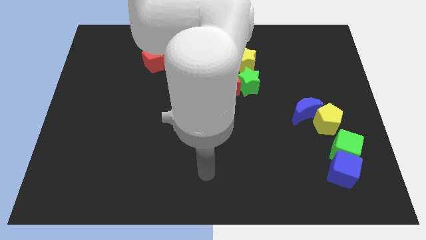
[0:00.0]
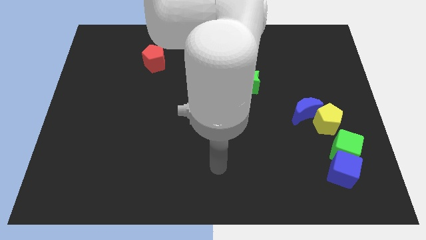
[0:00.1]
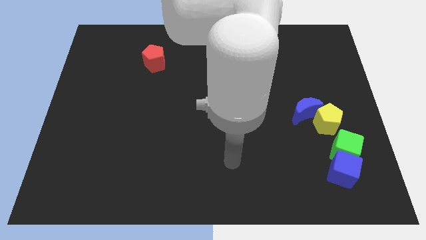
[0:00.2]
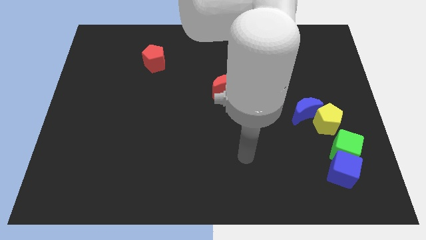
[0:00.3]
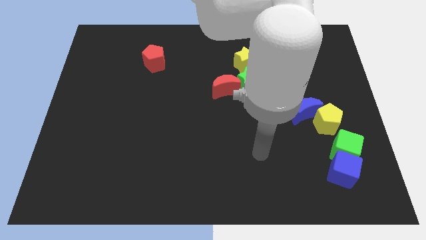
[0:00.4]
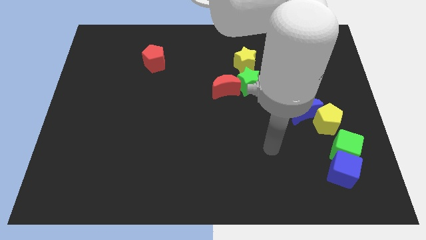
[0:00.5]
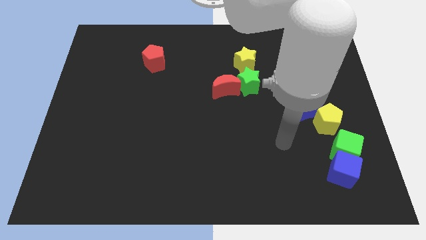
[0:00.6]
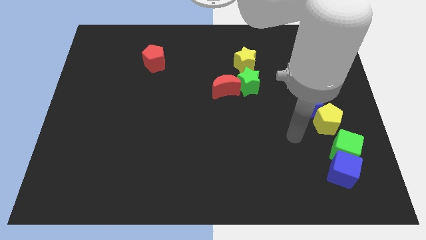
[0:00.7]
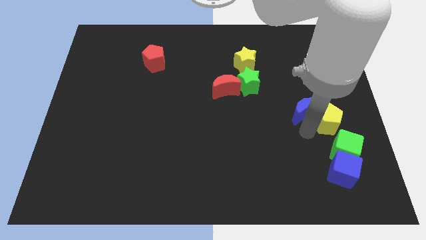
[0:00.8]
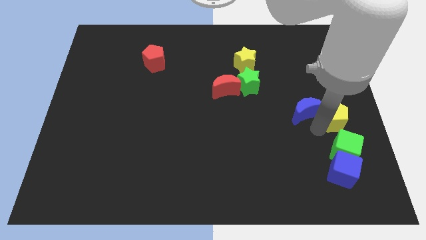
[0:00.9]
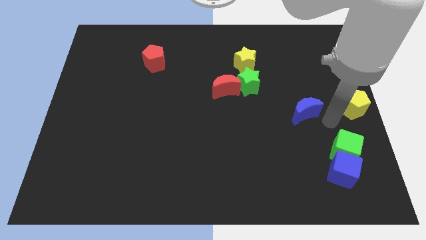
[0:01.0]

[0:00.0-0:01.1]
move the blue moon away from the yellow pentagon

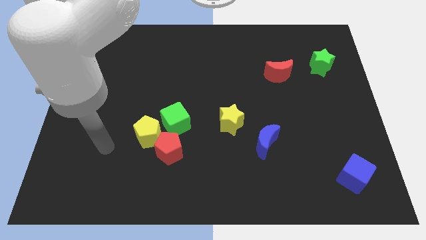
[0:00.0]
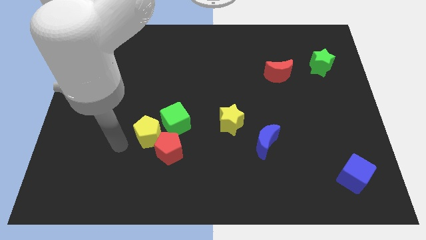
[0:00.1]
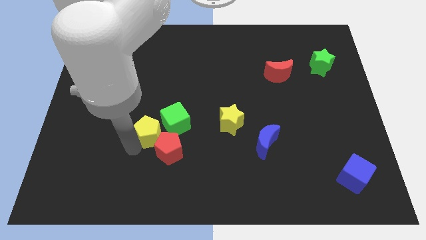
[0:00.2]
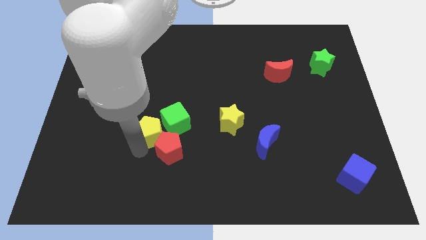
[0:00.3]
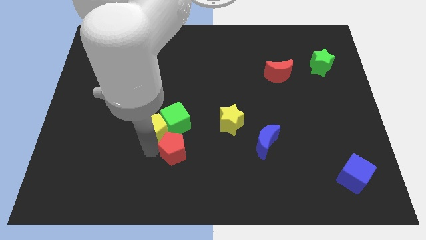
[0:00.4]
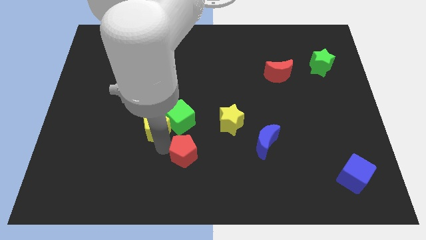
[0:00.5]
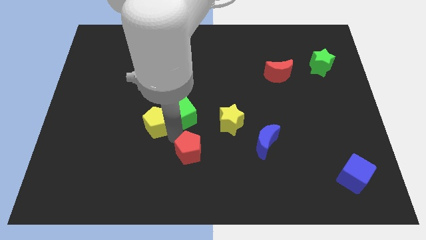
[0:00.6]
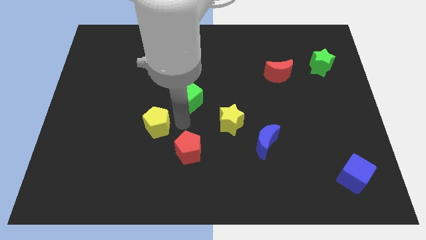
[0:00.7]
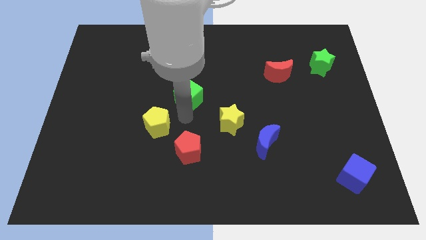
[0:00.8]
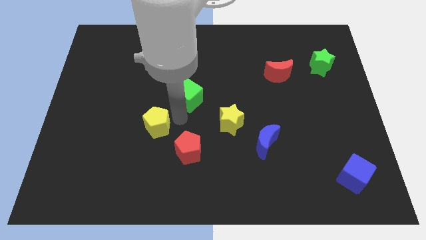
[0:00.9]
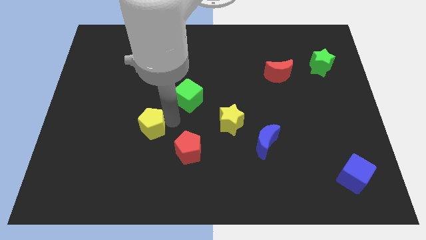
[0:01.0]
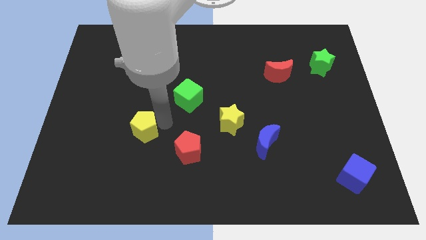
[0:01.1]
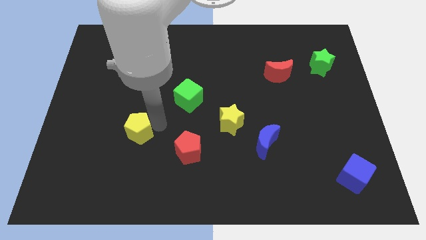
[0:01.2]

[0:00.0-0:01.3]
separate the yellow pentagon from the red pentagon and green cube

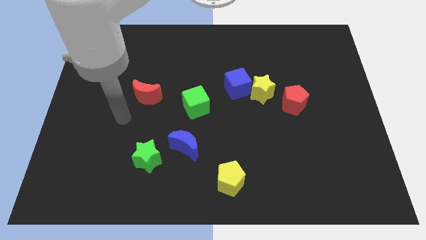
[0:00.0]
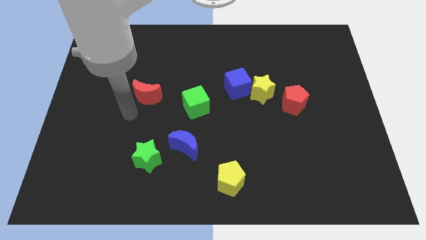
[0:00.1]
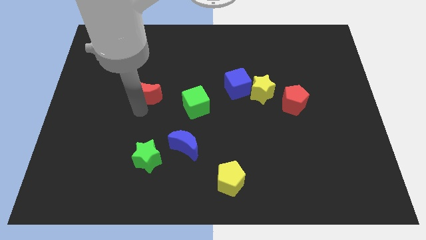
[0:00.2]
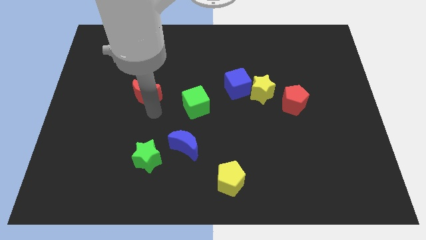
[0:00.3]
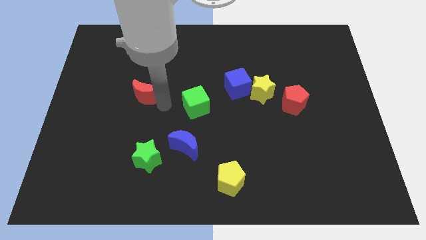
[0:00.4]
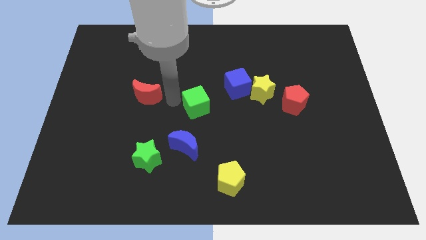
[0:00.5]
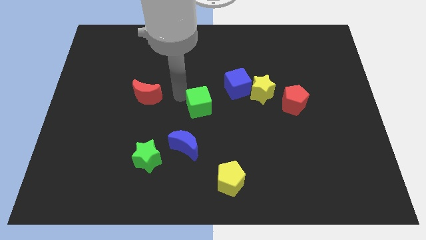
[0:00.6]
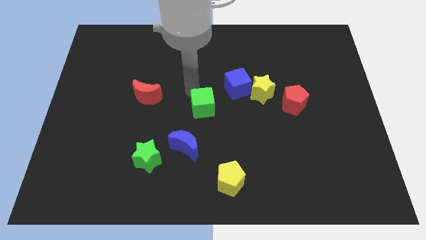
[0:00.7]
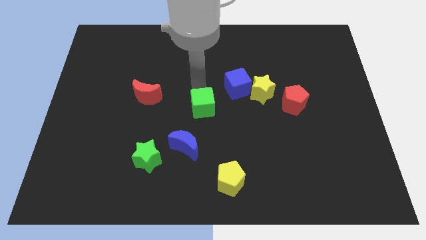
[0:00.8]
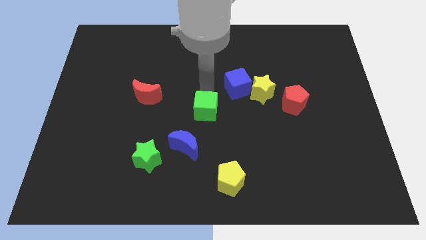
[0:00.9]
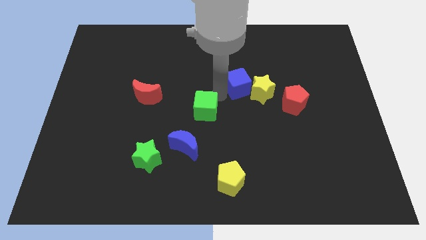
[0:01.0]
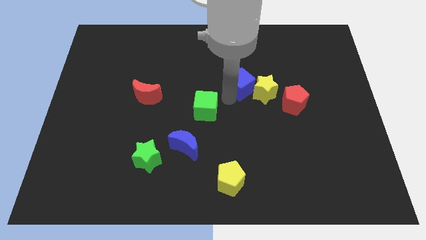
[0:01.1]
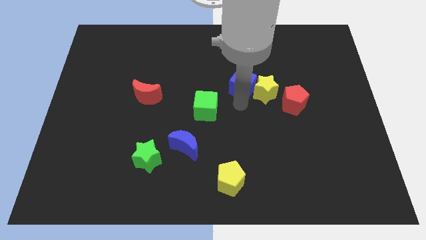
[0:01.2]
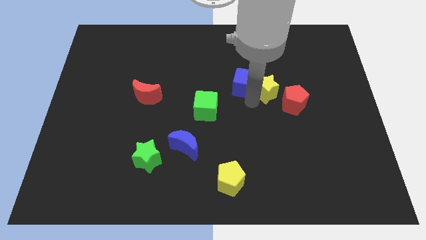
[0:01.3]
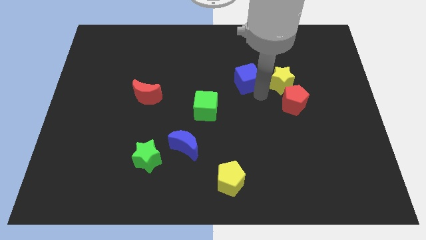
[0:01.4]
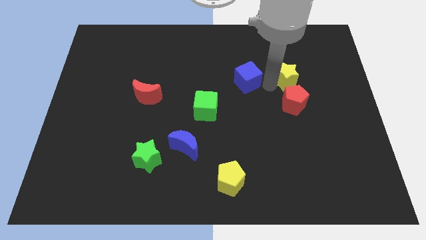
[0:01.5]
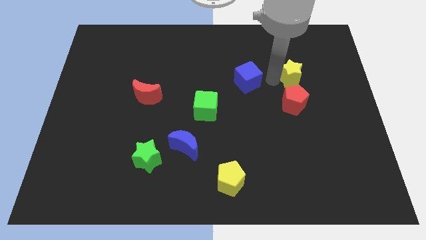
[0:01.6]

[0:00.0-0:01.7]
move the blue cube away from the yellow star

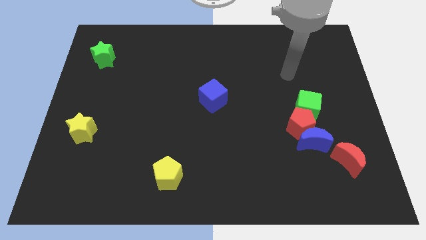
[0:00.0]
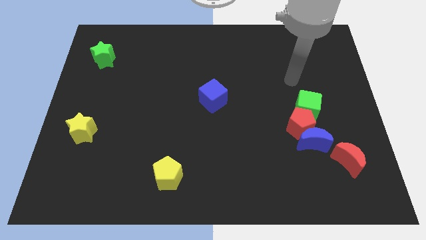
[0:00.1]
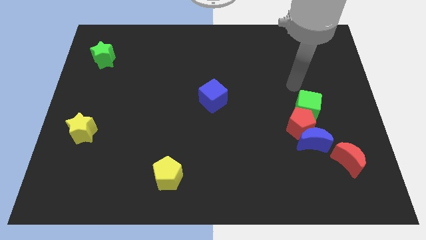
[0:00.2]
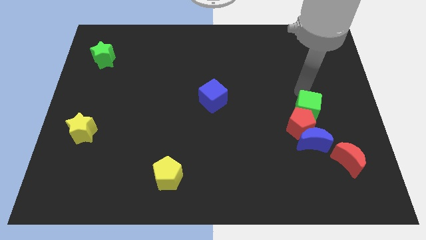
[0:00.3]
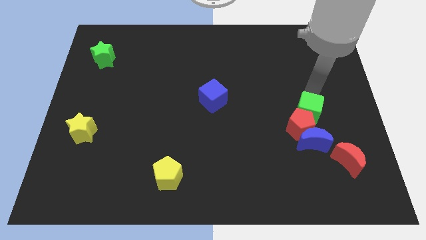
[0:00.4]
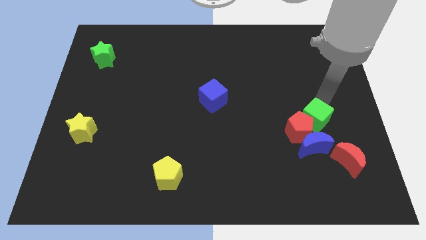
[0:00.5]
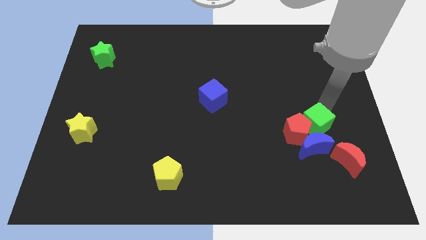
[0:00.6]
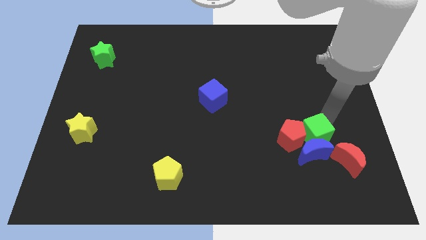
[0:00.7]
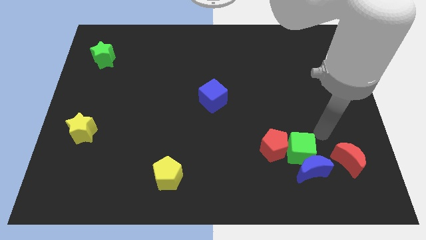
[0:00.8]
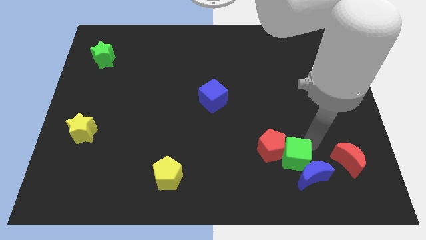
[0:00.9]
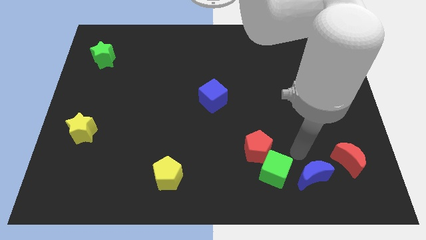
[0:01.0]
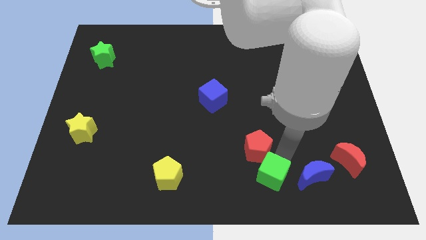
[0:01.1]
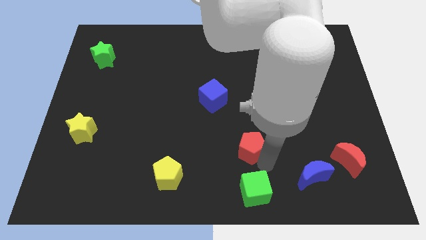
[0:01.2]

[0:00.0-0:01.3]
pull the red pentagon apart from the blue moon and green cube

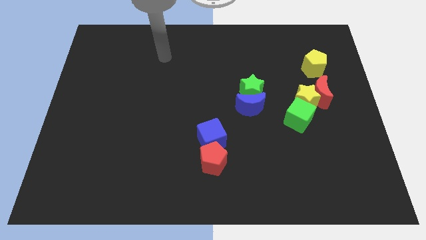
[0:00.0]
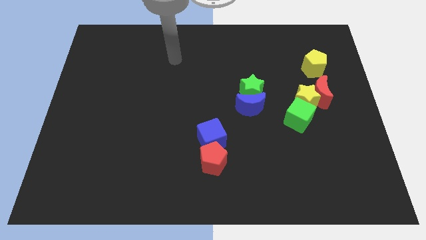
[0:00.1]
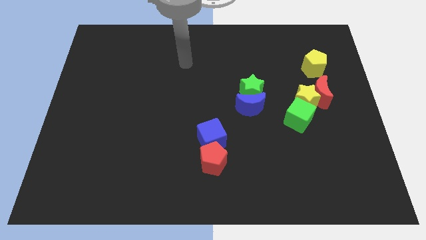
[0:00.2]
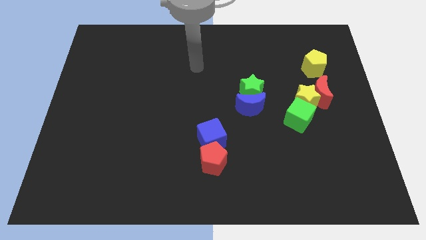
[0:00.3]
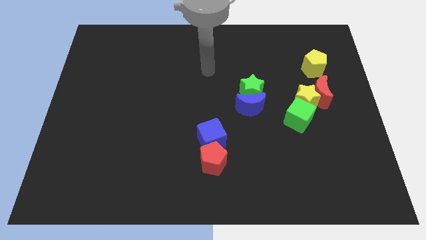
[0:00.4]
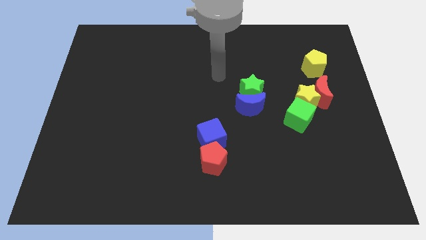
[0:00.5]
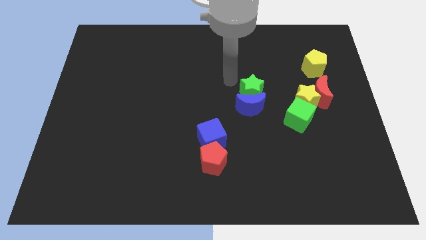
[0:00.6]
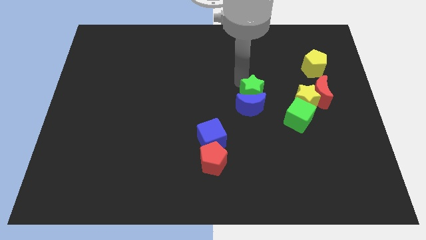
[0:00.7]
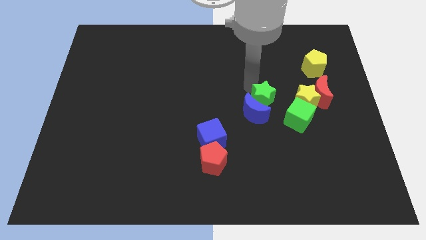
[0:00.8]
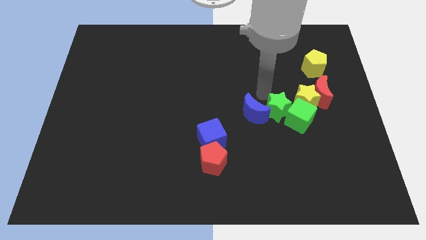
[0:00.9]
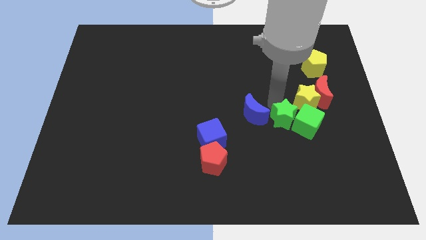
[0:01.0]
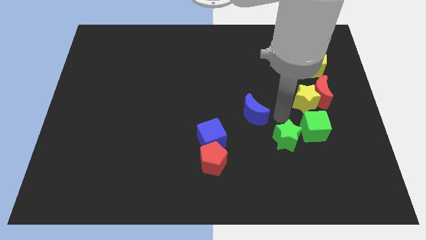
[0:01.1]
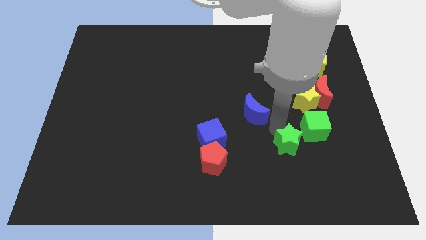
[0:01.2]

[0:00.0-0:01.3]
separate the blue moon from the green star

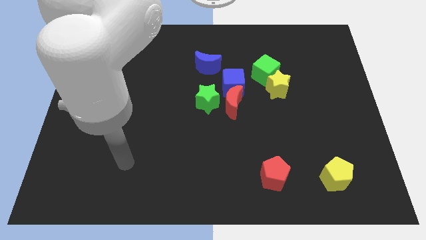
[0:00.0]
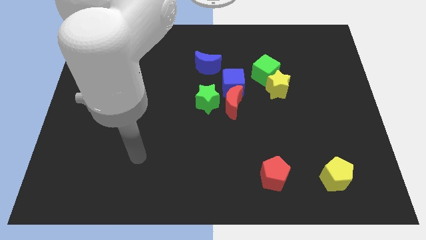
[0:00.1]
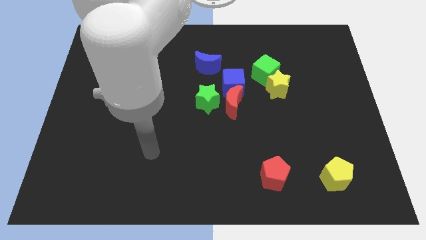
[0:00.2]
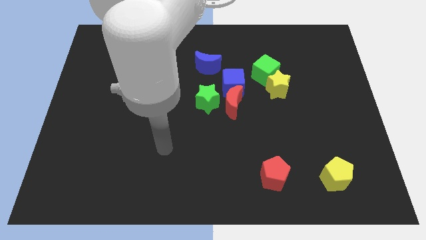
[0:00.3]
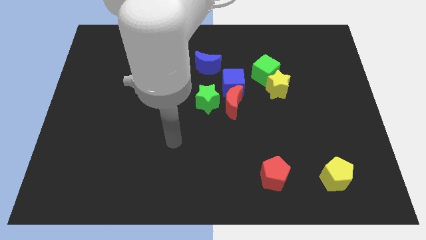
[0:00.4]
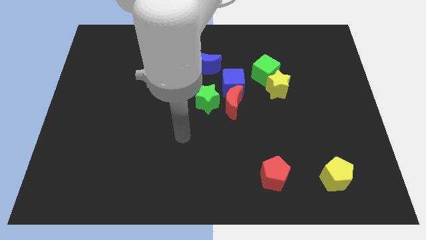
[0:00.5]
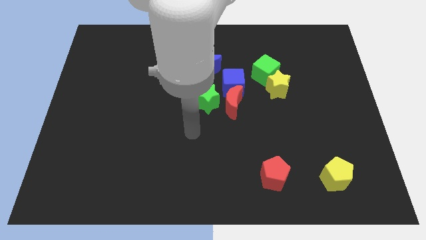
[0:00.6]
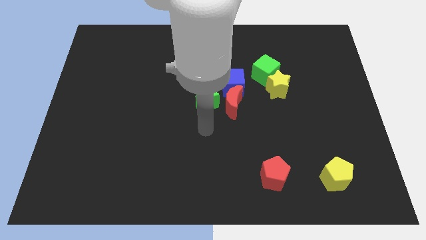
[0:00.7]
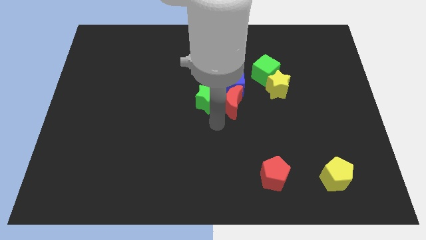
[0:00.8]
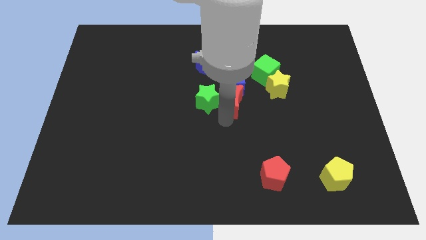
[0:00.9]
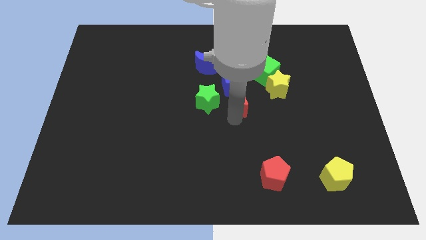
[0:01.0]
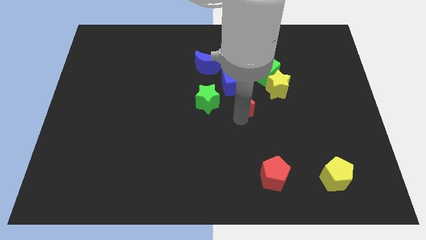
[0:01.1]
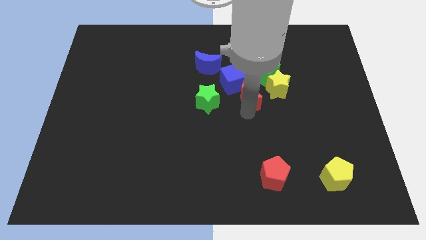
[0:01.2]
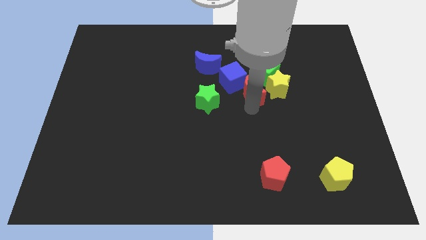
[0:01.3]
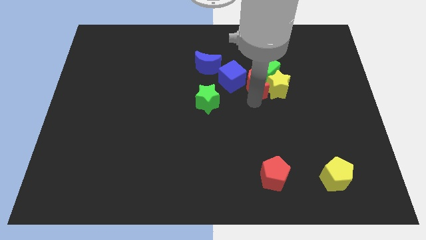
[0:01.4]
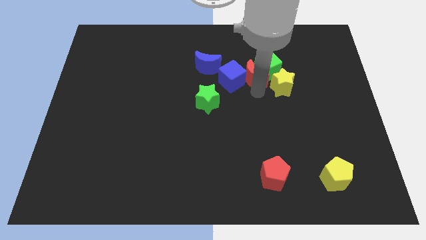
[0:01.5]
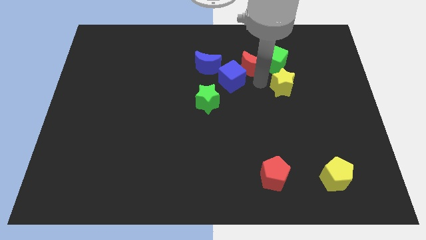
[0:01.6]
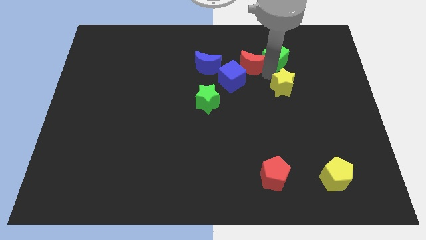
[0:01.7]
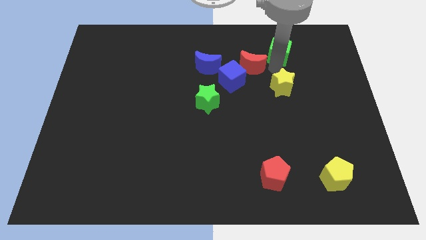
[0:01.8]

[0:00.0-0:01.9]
separate the yellow star from the green cube

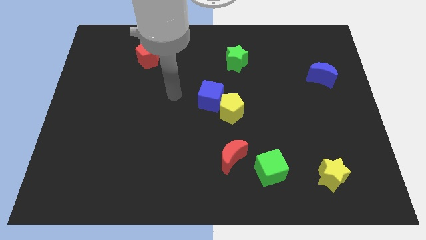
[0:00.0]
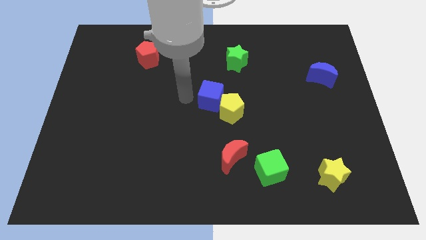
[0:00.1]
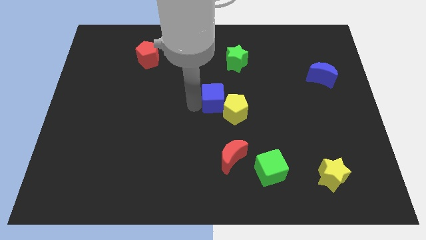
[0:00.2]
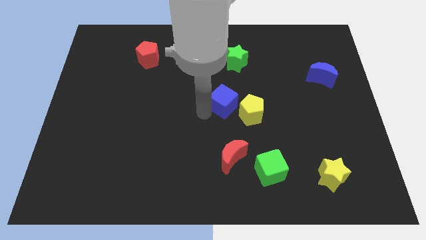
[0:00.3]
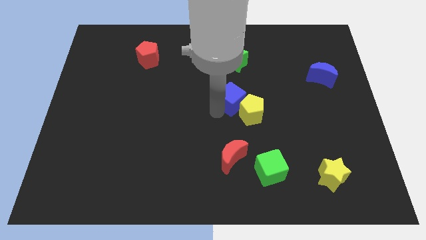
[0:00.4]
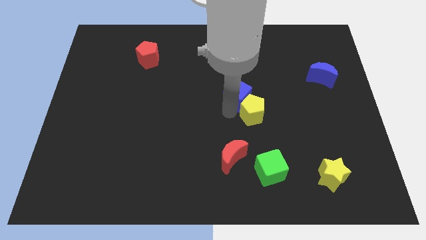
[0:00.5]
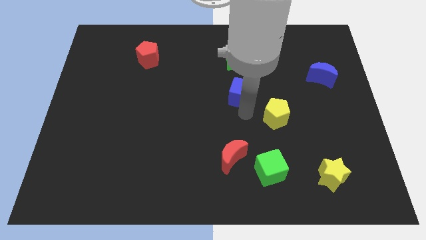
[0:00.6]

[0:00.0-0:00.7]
separate the blue cube from the yellow pentagon
